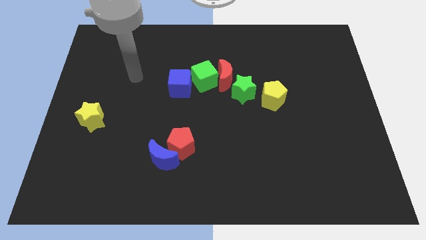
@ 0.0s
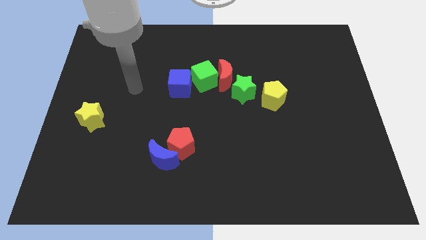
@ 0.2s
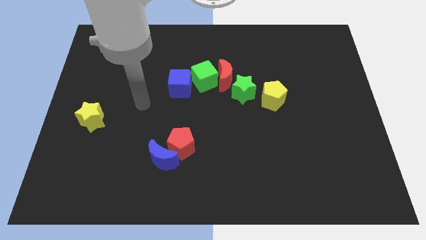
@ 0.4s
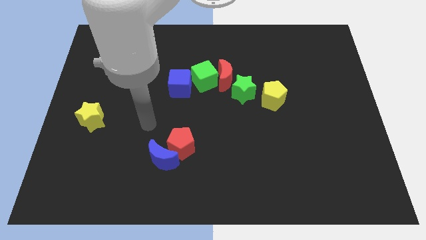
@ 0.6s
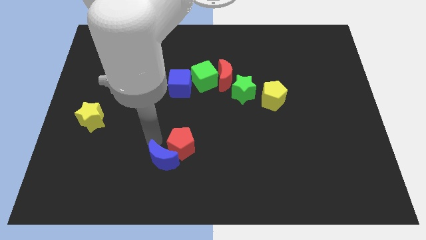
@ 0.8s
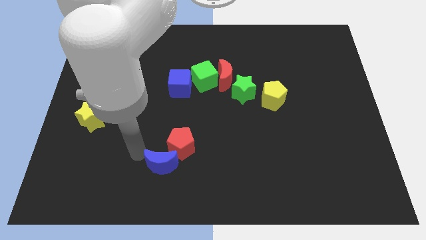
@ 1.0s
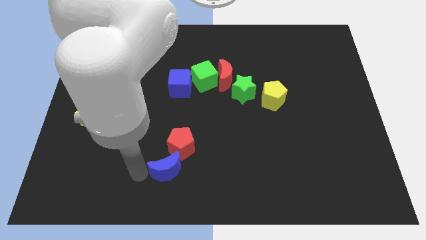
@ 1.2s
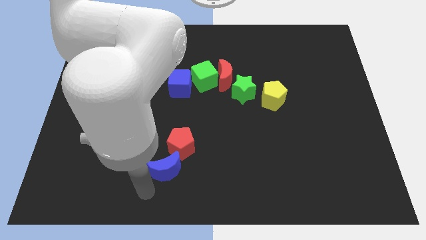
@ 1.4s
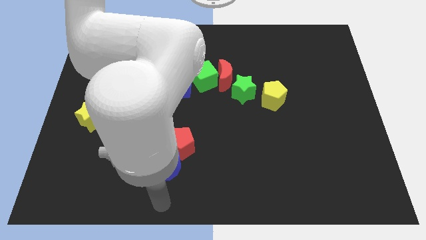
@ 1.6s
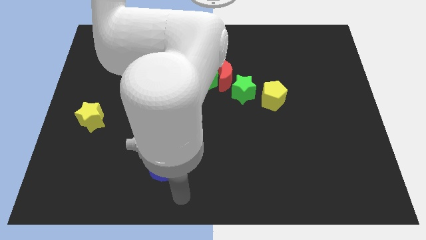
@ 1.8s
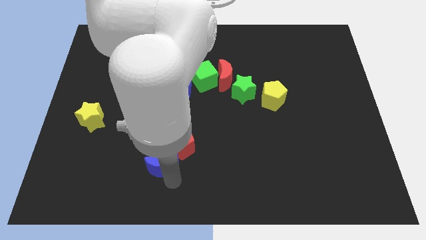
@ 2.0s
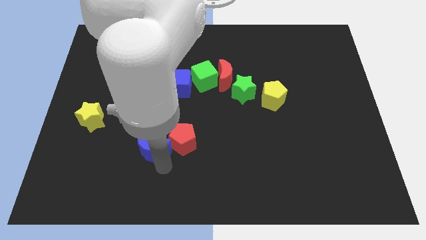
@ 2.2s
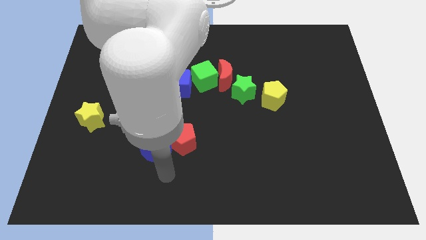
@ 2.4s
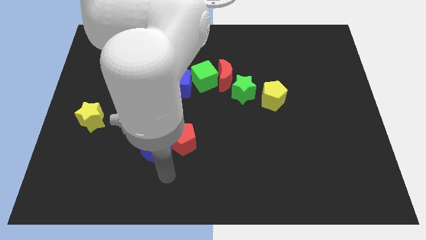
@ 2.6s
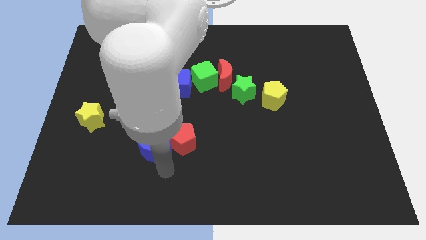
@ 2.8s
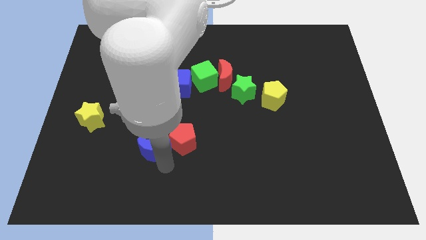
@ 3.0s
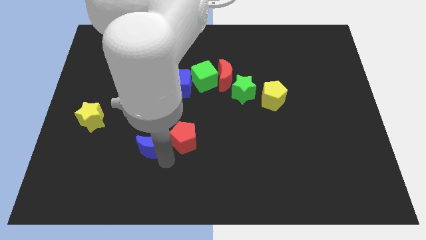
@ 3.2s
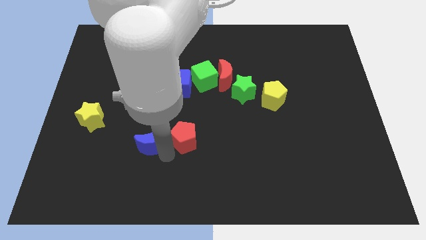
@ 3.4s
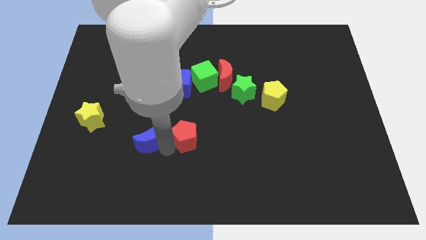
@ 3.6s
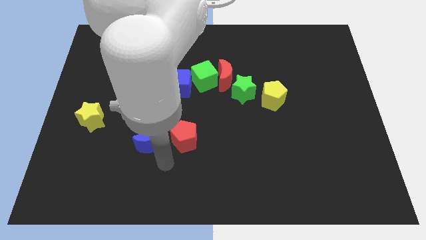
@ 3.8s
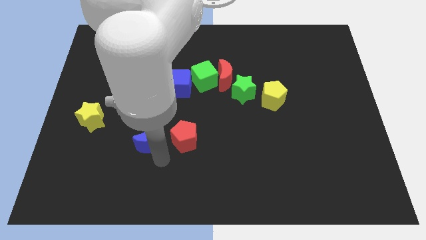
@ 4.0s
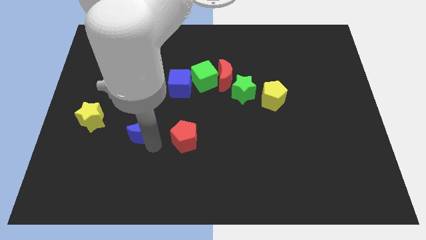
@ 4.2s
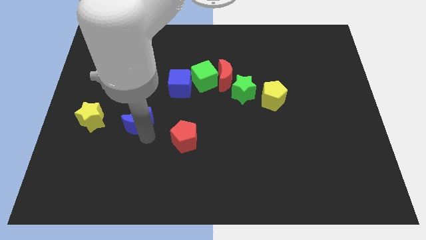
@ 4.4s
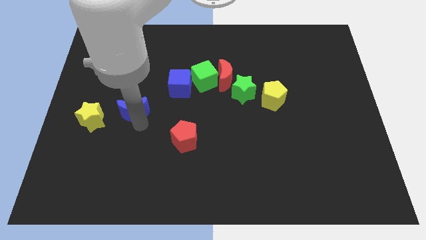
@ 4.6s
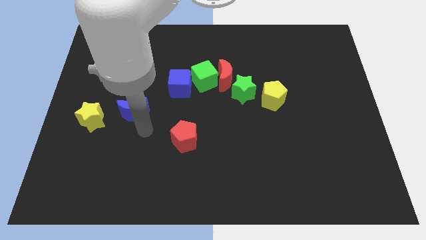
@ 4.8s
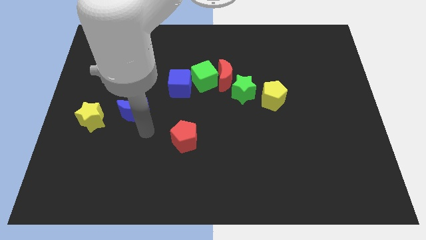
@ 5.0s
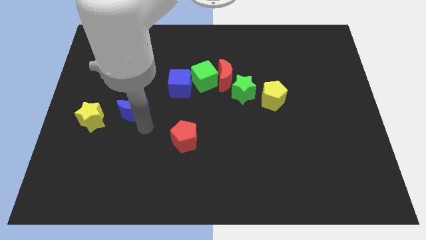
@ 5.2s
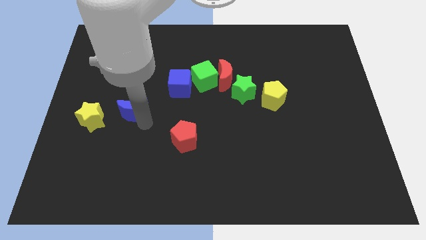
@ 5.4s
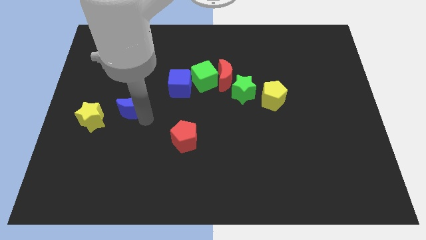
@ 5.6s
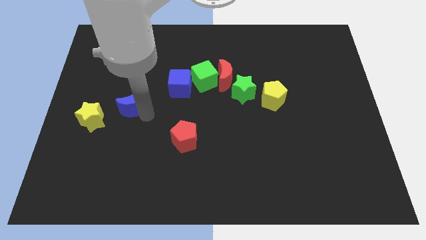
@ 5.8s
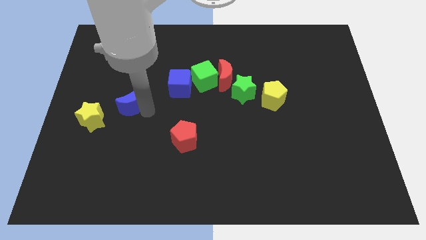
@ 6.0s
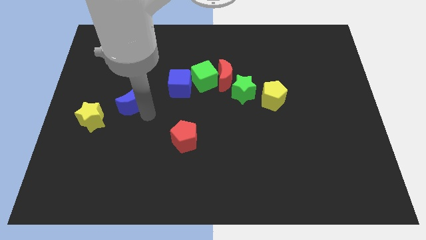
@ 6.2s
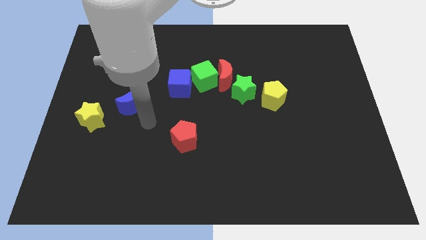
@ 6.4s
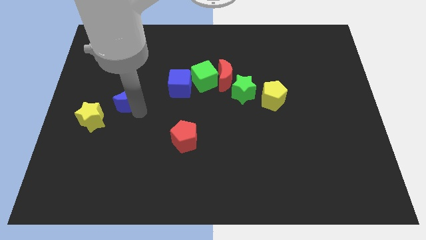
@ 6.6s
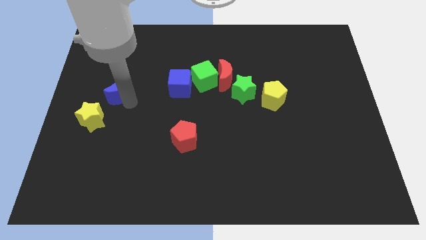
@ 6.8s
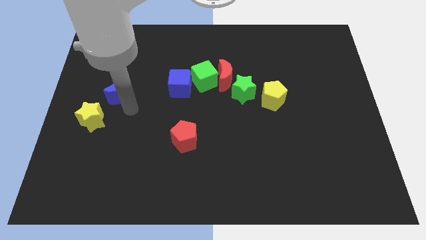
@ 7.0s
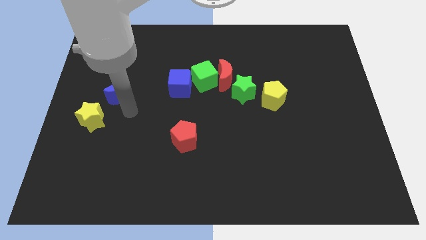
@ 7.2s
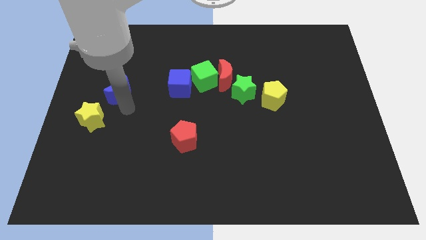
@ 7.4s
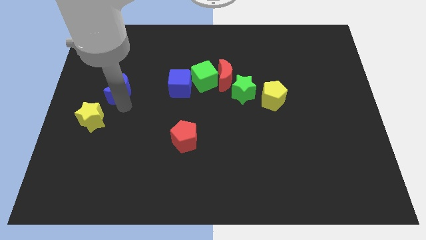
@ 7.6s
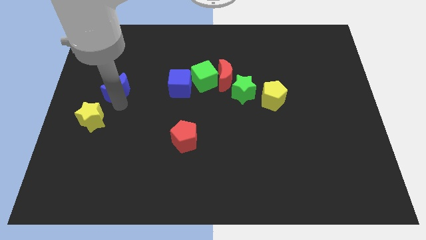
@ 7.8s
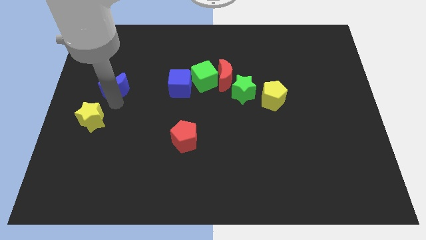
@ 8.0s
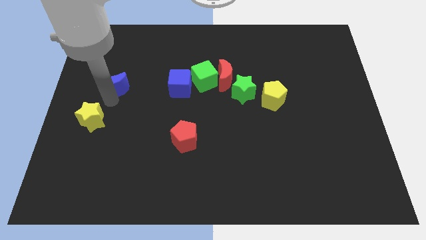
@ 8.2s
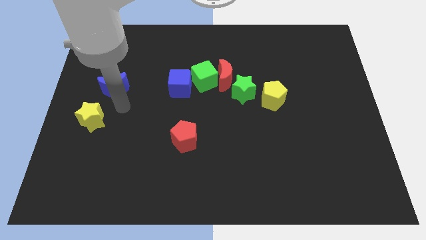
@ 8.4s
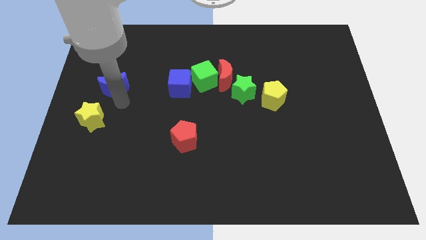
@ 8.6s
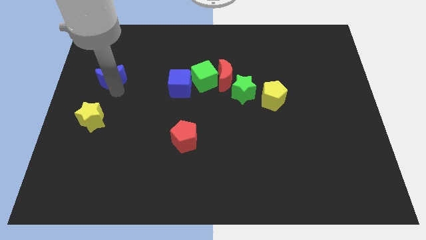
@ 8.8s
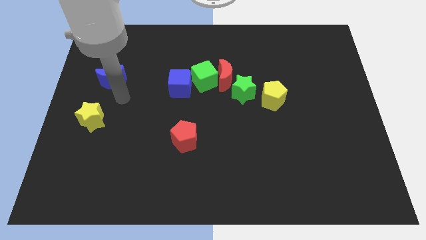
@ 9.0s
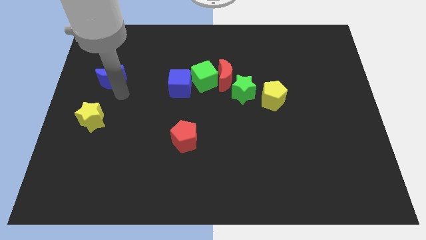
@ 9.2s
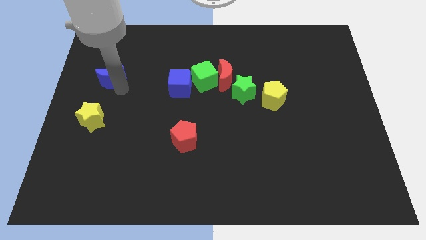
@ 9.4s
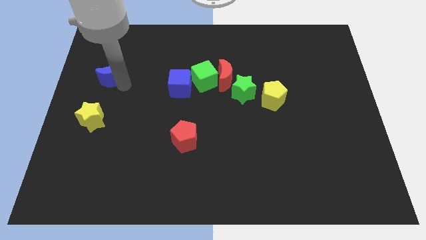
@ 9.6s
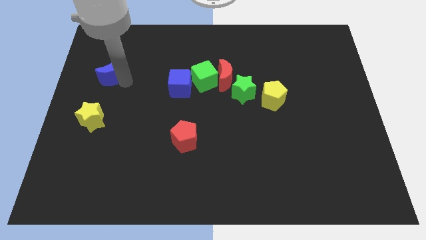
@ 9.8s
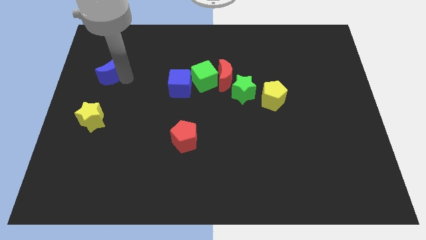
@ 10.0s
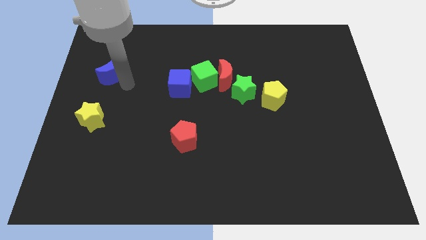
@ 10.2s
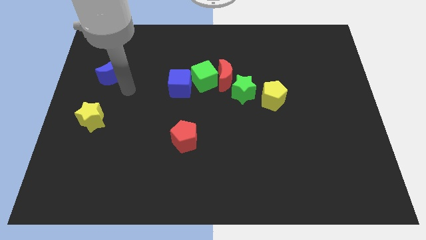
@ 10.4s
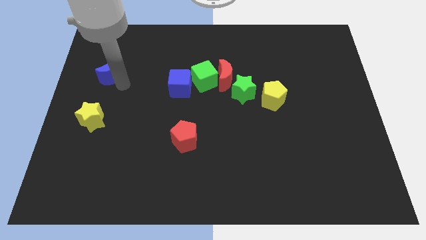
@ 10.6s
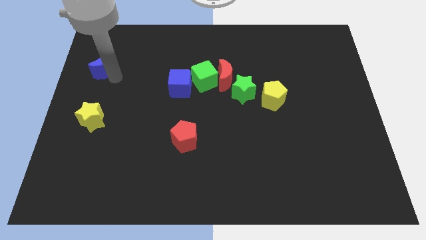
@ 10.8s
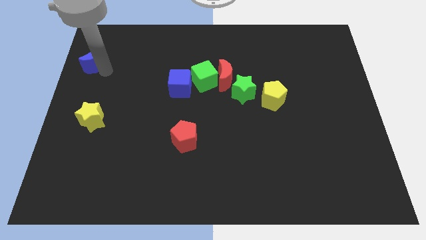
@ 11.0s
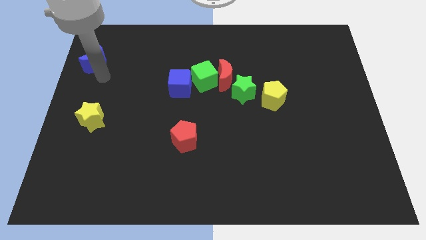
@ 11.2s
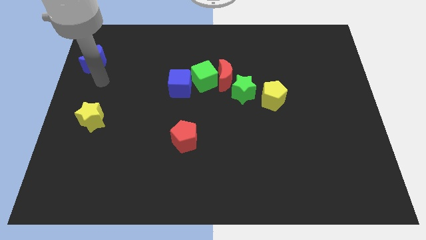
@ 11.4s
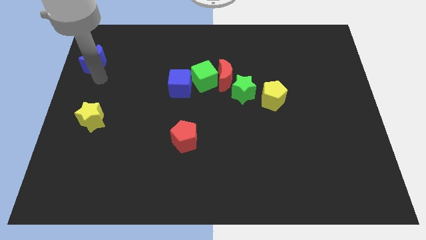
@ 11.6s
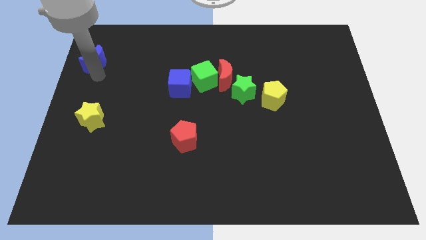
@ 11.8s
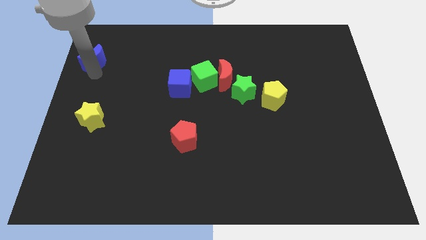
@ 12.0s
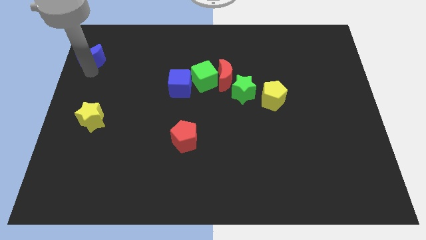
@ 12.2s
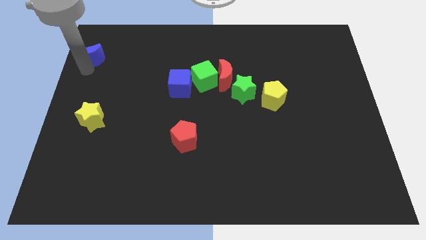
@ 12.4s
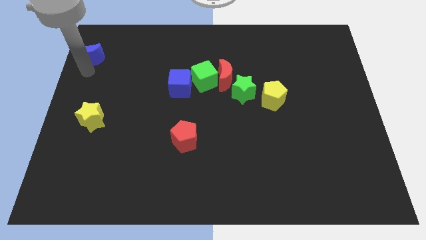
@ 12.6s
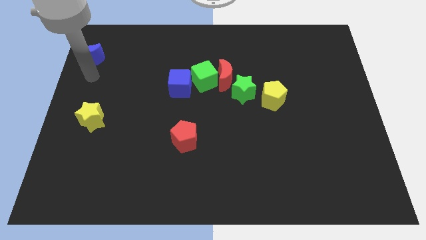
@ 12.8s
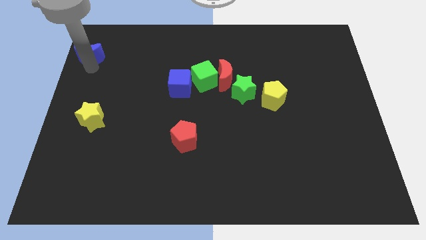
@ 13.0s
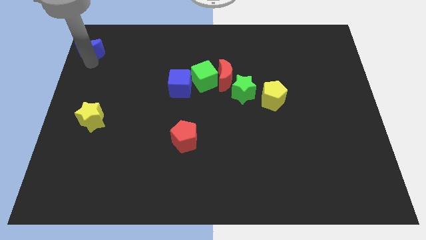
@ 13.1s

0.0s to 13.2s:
put the blue moon to the top left corner
